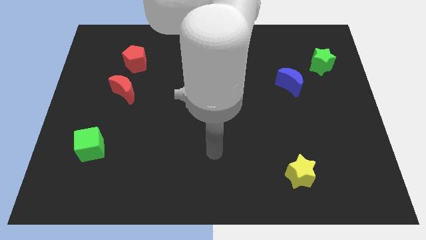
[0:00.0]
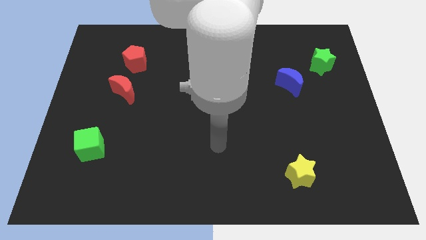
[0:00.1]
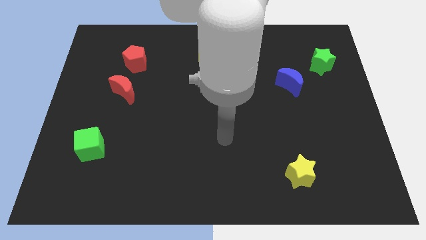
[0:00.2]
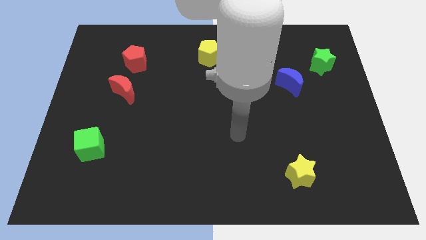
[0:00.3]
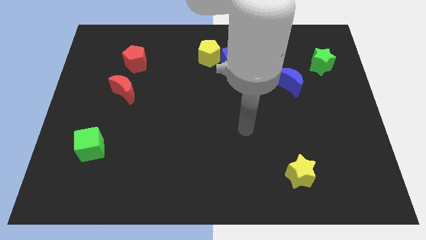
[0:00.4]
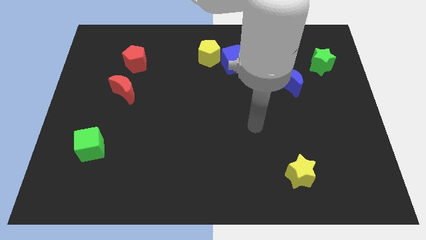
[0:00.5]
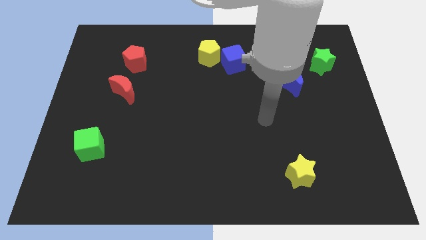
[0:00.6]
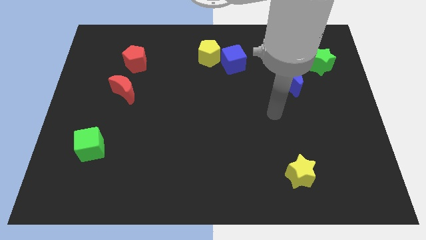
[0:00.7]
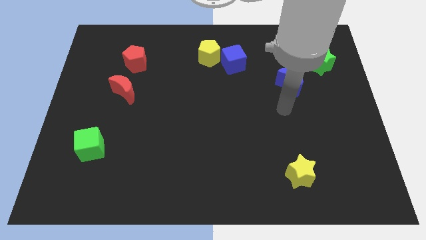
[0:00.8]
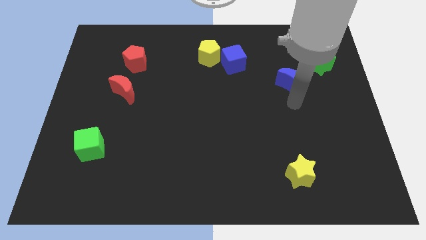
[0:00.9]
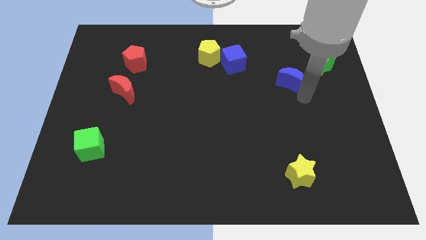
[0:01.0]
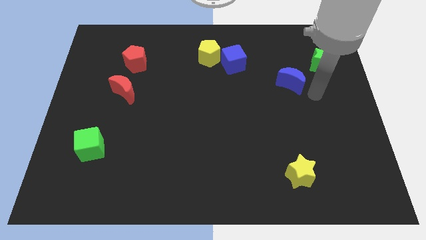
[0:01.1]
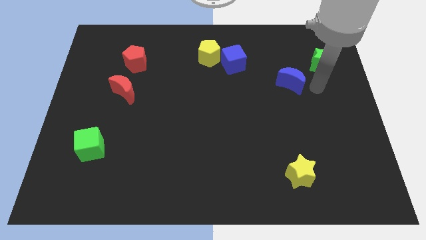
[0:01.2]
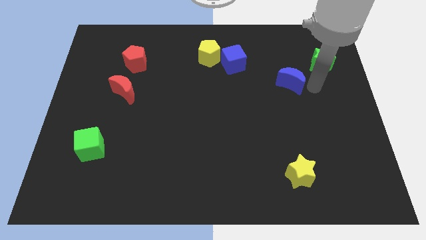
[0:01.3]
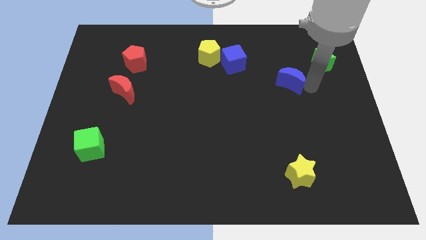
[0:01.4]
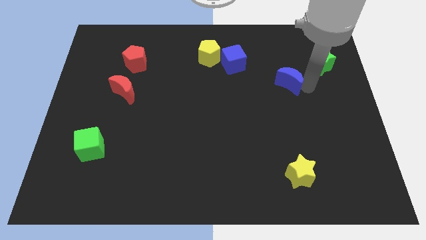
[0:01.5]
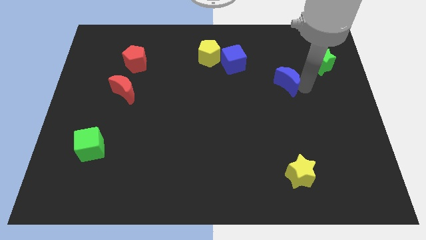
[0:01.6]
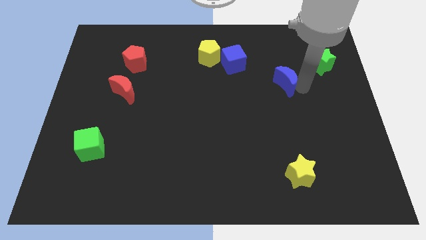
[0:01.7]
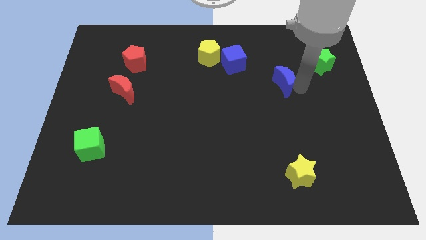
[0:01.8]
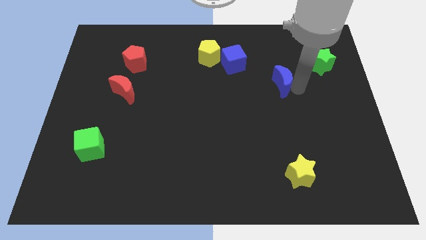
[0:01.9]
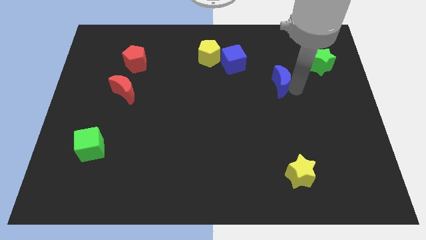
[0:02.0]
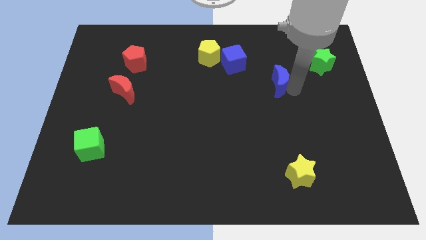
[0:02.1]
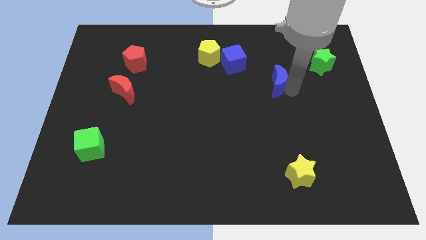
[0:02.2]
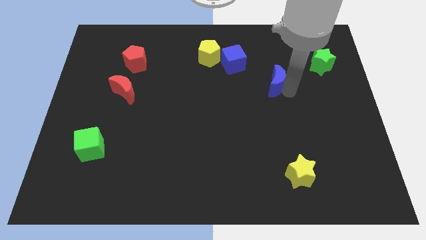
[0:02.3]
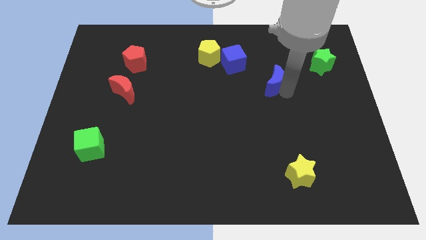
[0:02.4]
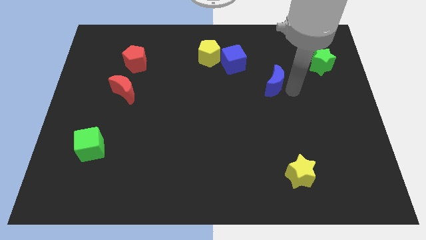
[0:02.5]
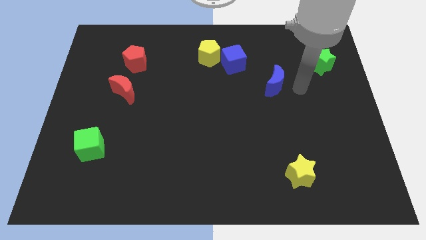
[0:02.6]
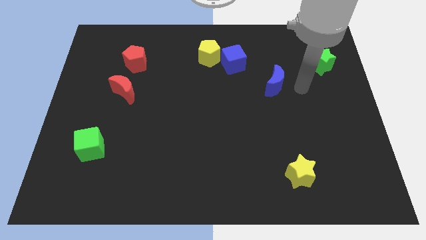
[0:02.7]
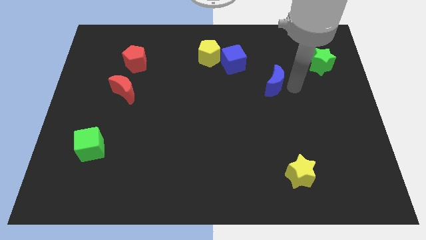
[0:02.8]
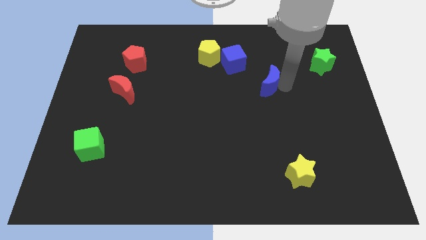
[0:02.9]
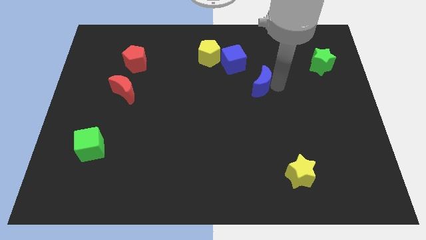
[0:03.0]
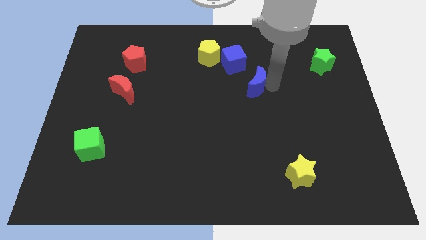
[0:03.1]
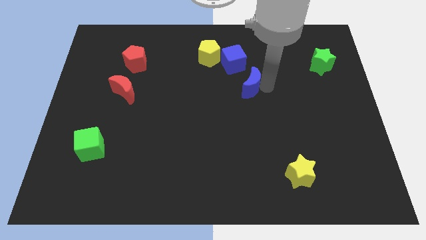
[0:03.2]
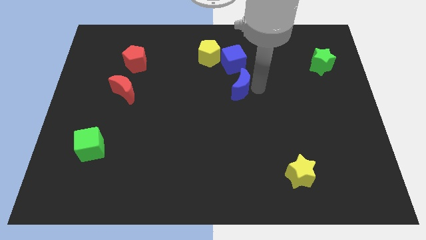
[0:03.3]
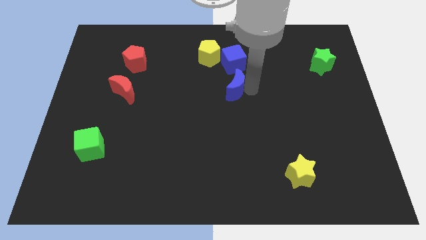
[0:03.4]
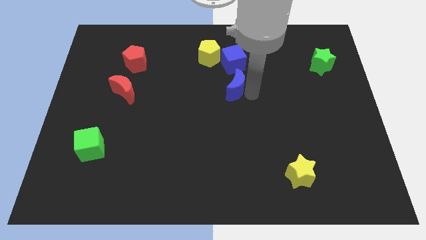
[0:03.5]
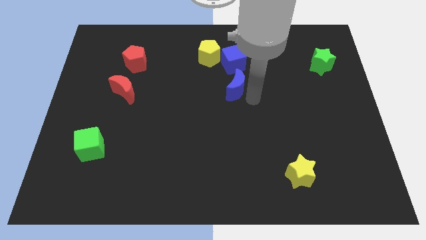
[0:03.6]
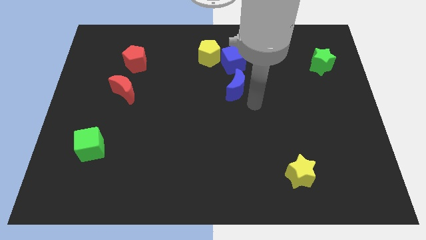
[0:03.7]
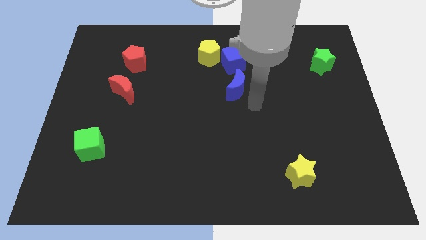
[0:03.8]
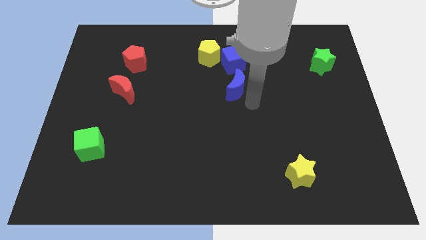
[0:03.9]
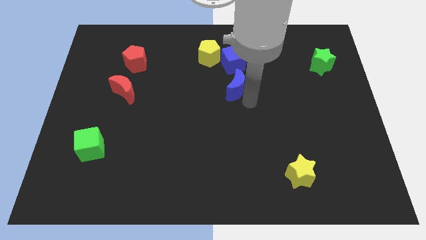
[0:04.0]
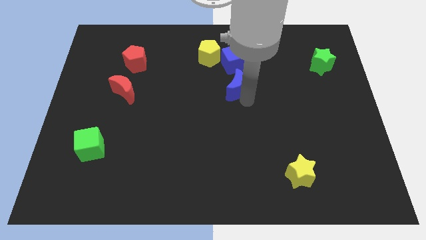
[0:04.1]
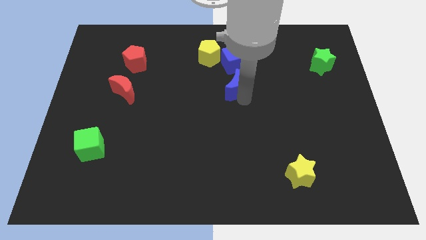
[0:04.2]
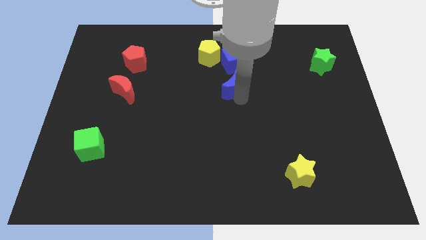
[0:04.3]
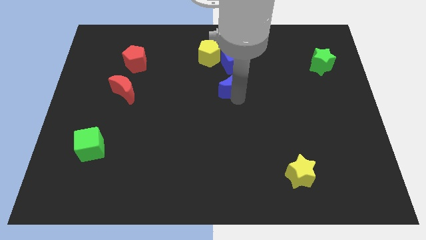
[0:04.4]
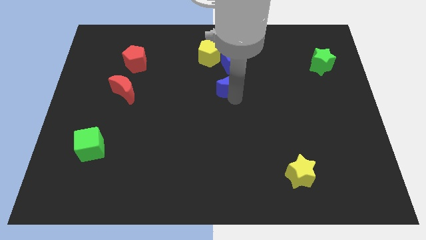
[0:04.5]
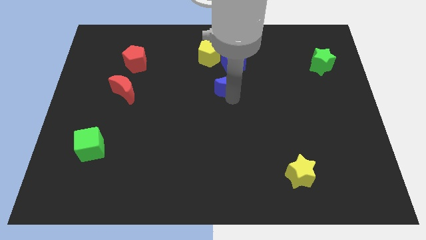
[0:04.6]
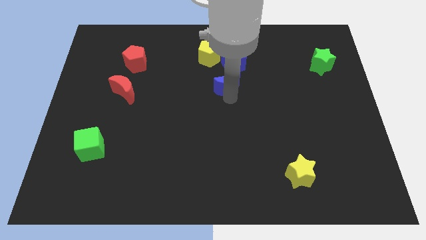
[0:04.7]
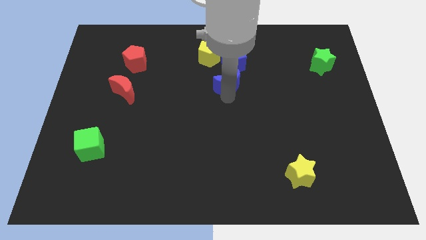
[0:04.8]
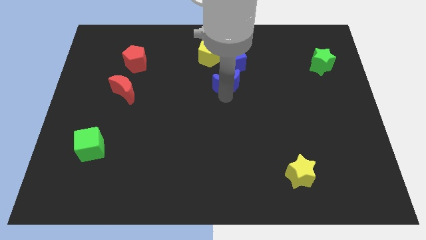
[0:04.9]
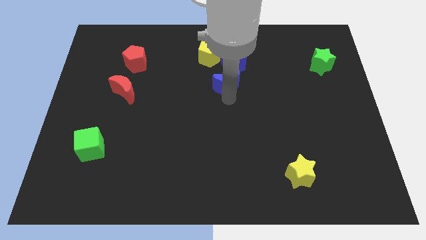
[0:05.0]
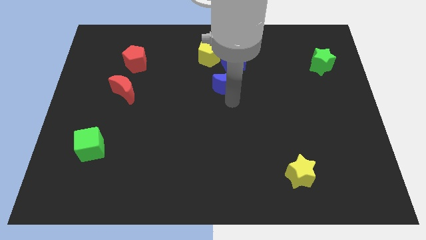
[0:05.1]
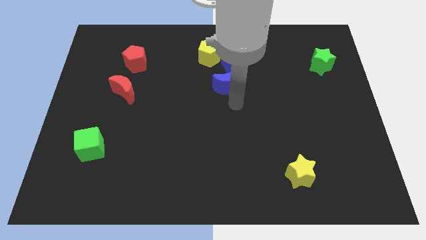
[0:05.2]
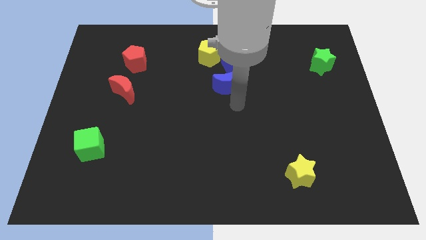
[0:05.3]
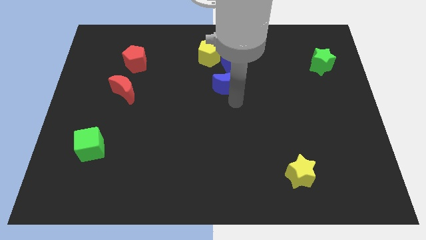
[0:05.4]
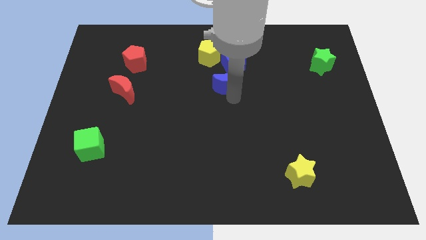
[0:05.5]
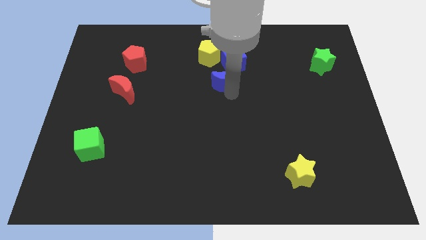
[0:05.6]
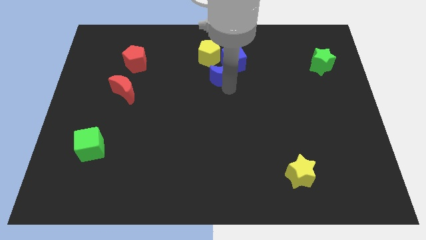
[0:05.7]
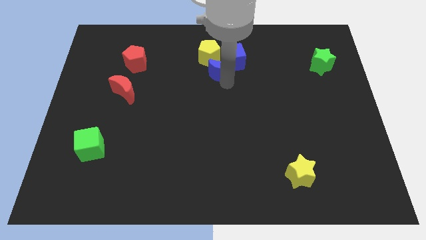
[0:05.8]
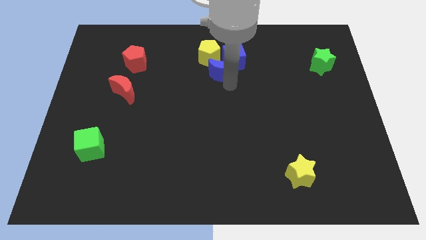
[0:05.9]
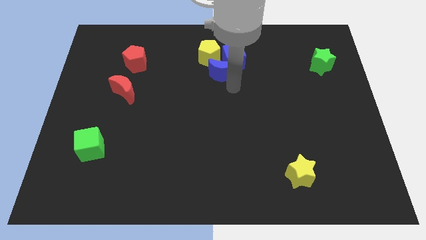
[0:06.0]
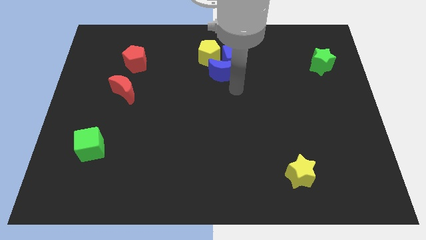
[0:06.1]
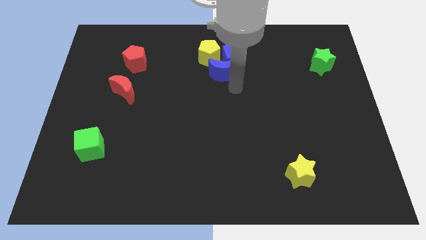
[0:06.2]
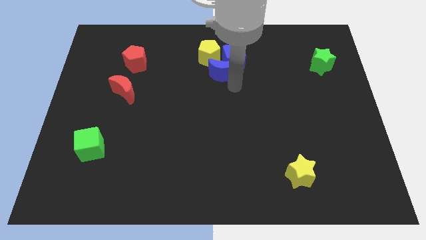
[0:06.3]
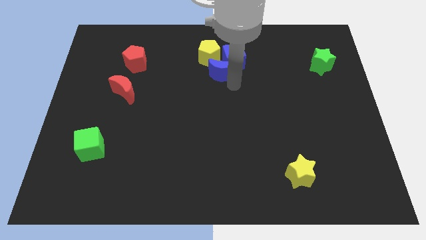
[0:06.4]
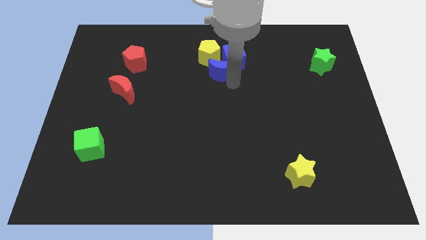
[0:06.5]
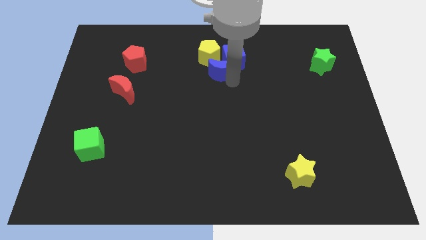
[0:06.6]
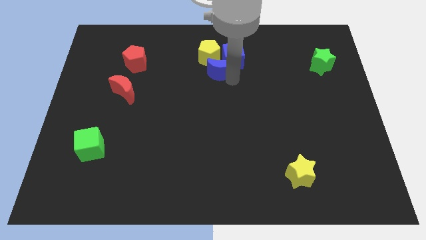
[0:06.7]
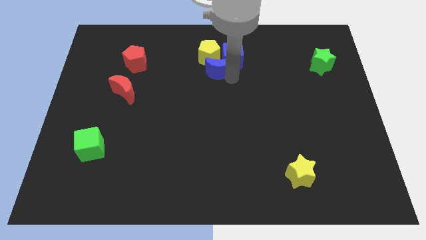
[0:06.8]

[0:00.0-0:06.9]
move the blue moon close to the yellow pentagon

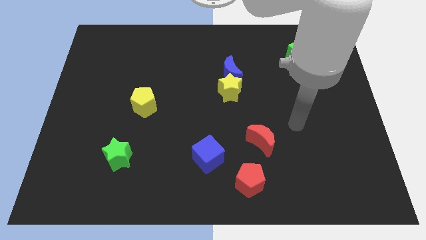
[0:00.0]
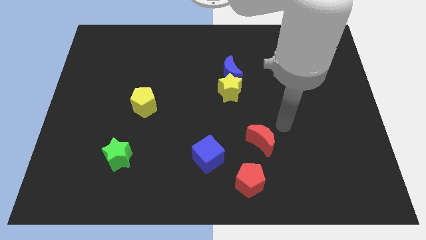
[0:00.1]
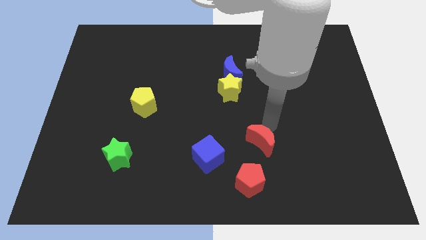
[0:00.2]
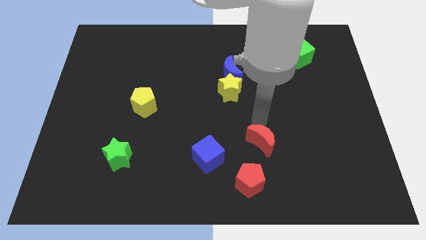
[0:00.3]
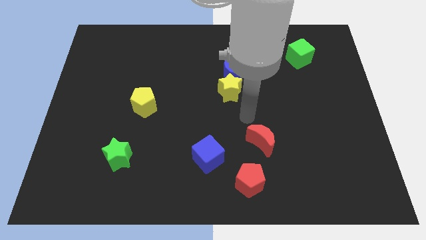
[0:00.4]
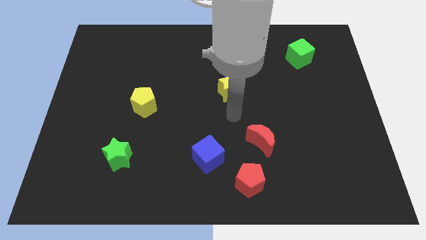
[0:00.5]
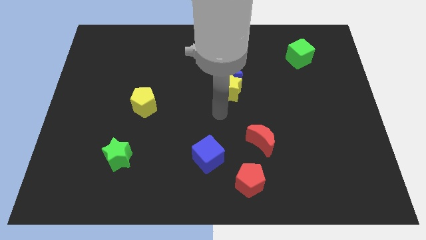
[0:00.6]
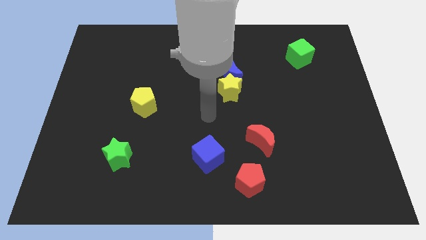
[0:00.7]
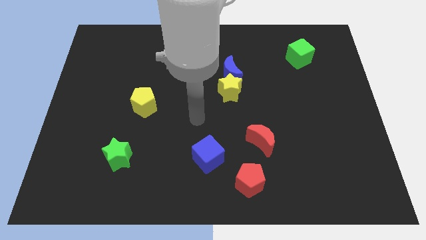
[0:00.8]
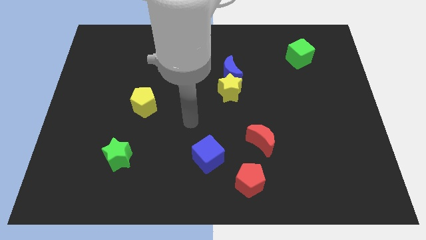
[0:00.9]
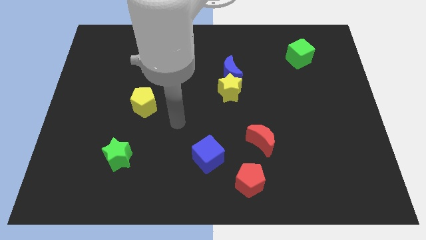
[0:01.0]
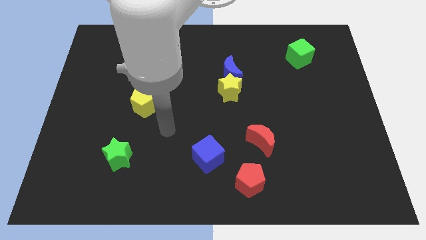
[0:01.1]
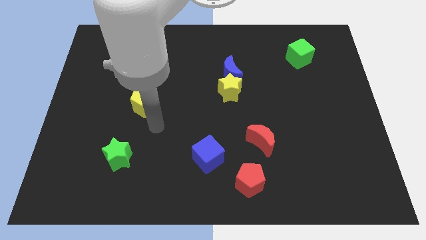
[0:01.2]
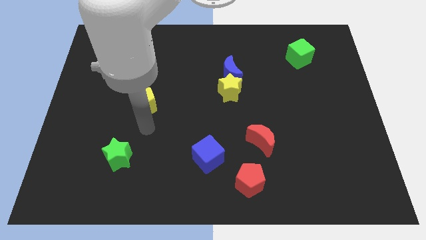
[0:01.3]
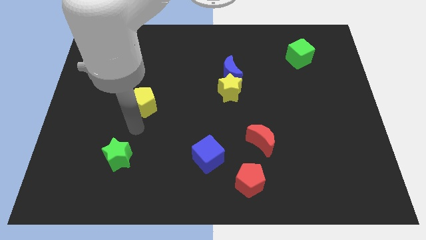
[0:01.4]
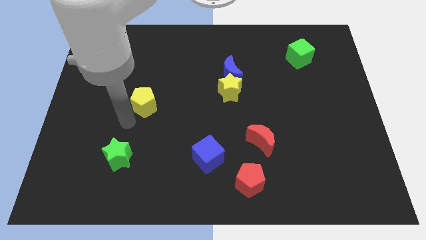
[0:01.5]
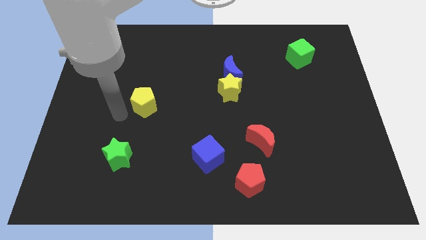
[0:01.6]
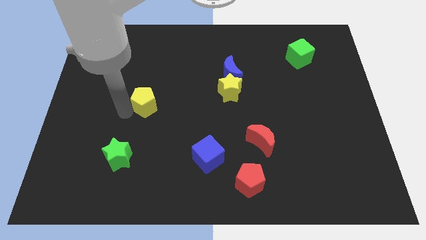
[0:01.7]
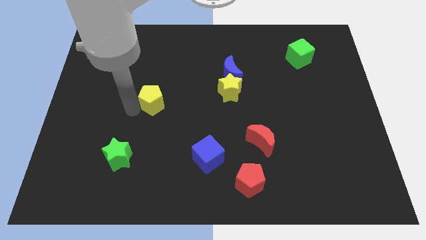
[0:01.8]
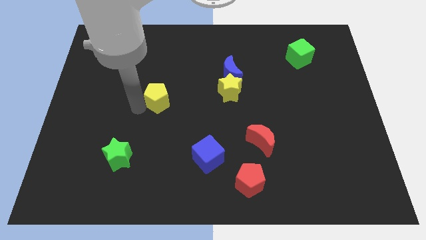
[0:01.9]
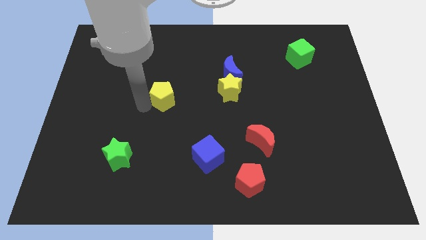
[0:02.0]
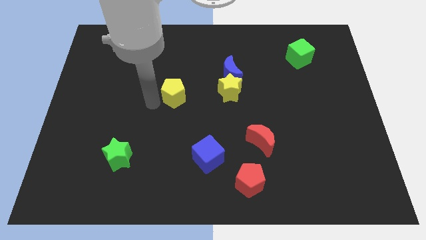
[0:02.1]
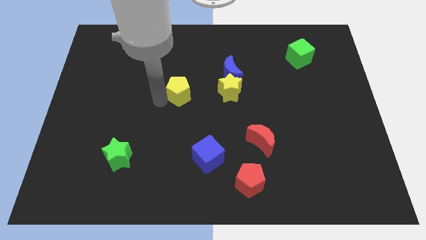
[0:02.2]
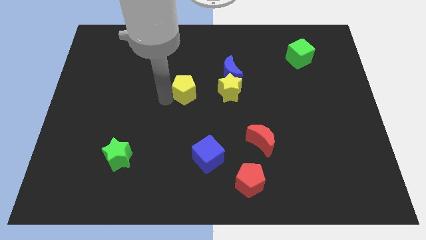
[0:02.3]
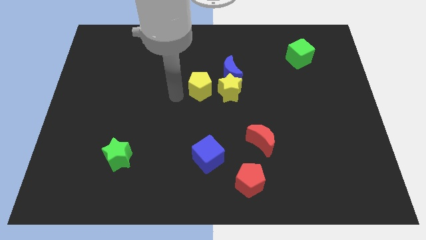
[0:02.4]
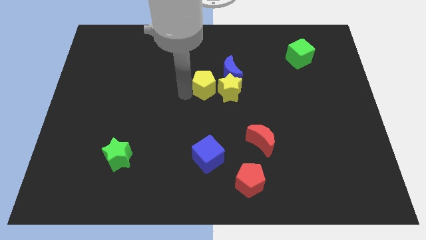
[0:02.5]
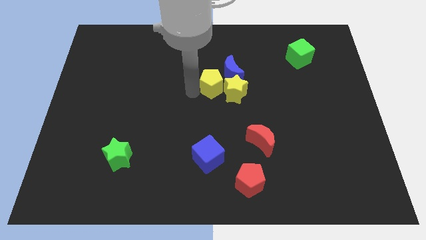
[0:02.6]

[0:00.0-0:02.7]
slide the yellow pentagon towards the blue moon
